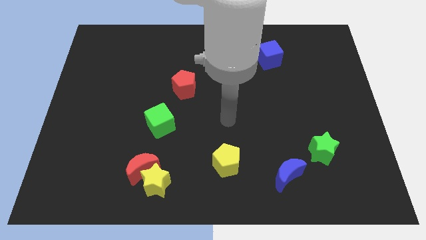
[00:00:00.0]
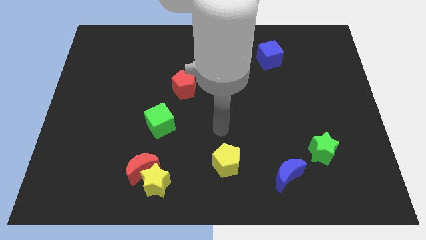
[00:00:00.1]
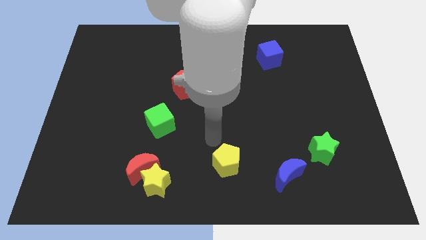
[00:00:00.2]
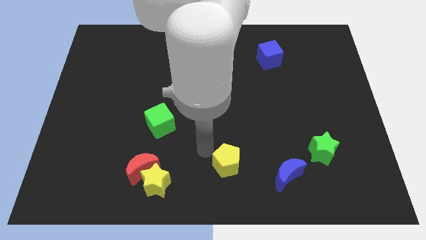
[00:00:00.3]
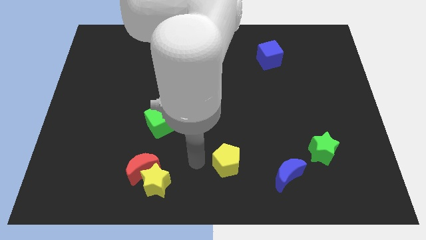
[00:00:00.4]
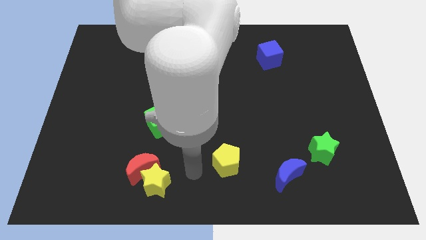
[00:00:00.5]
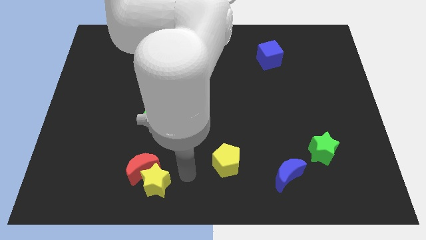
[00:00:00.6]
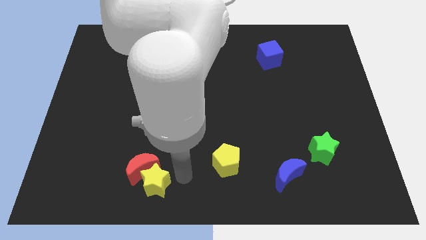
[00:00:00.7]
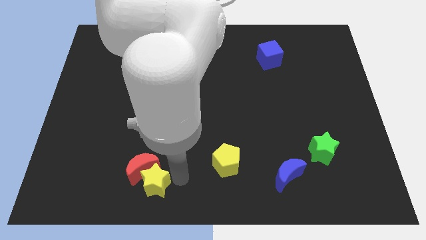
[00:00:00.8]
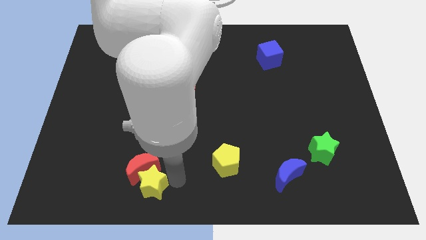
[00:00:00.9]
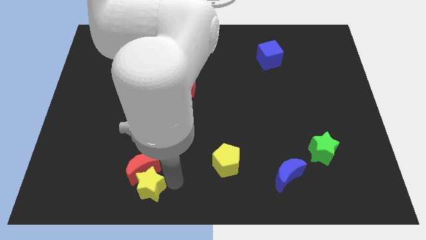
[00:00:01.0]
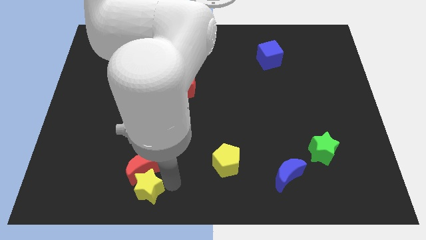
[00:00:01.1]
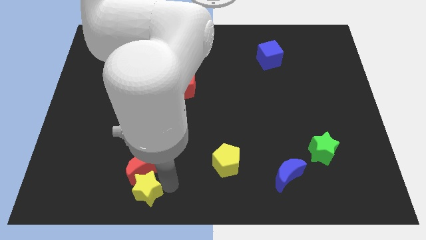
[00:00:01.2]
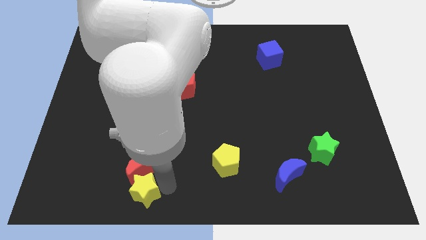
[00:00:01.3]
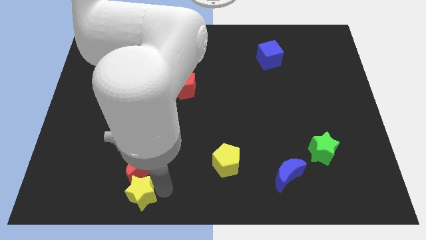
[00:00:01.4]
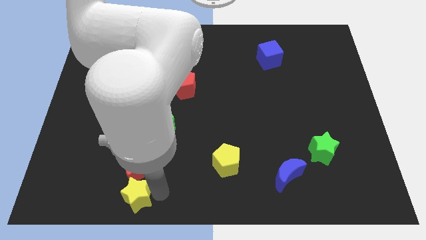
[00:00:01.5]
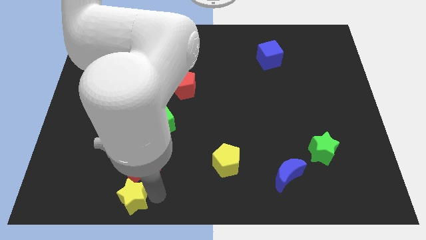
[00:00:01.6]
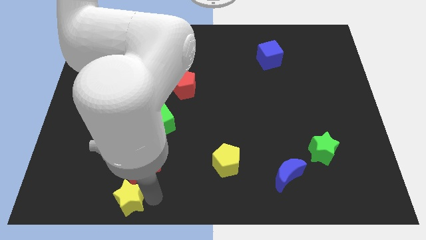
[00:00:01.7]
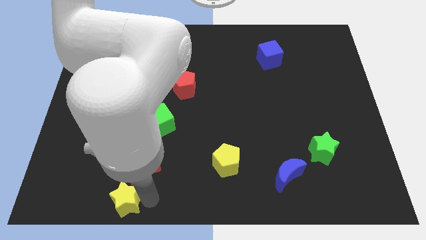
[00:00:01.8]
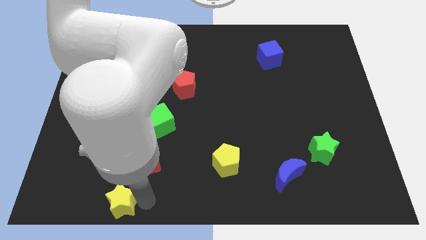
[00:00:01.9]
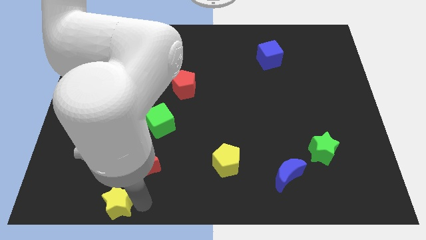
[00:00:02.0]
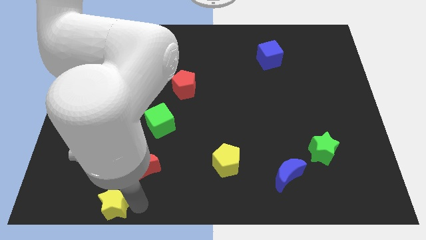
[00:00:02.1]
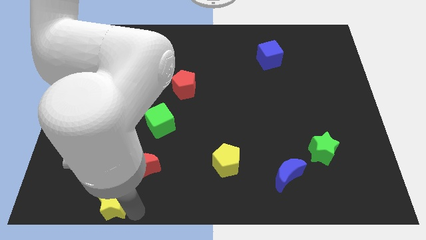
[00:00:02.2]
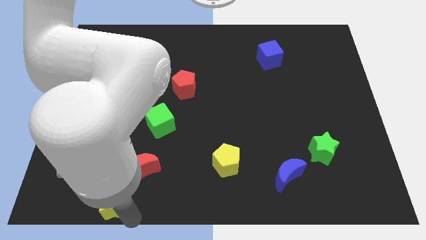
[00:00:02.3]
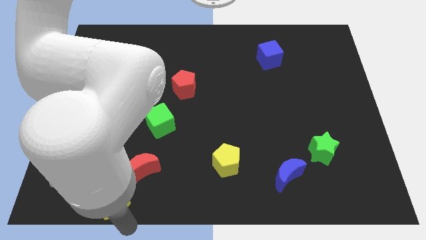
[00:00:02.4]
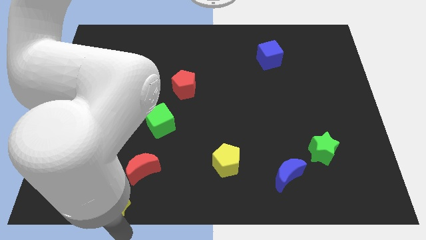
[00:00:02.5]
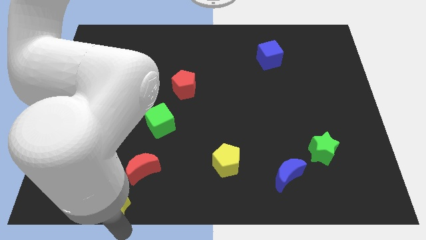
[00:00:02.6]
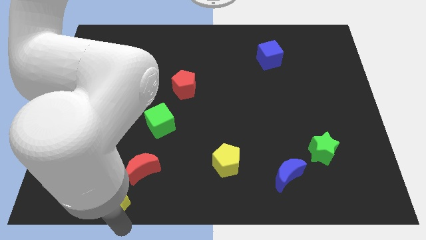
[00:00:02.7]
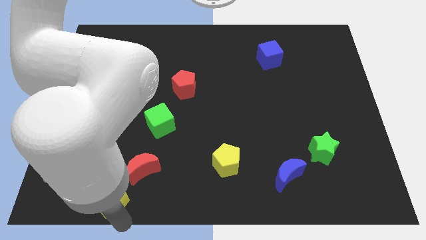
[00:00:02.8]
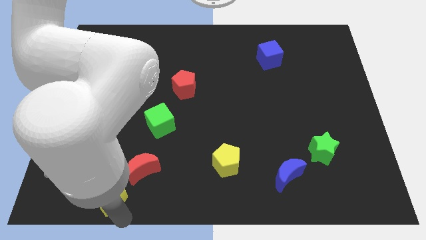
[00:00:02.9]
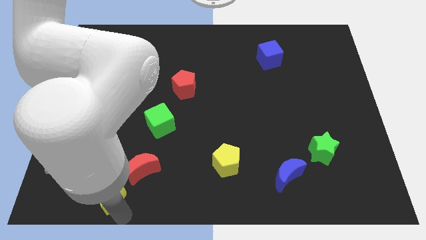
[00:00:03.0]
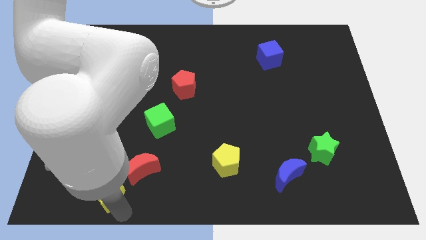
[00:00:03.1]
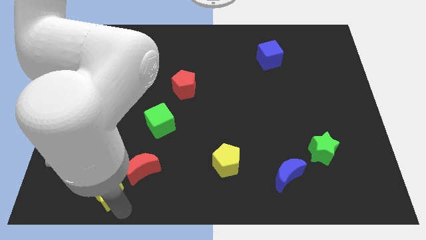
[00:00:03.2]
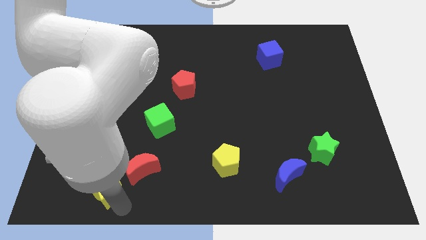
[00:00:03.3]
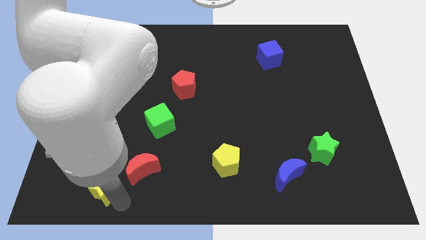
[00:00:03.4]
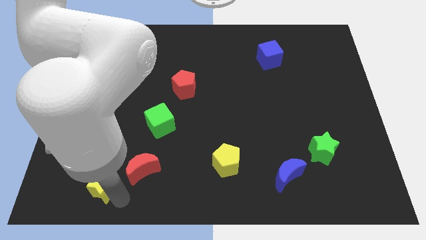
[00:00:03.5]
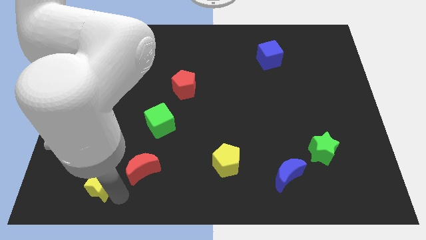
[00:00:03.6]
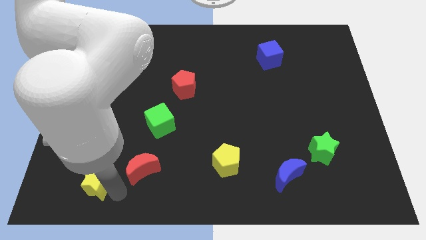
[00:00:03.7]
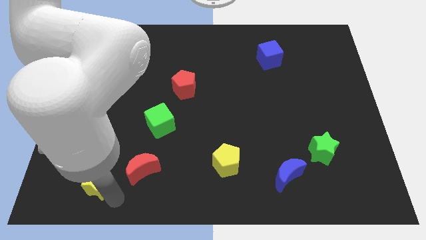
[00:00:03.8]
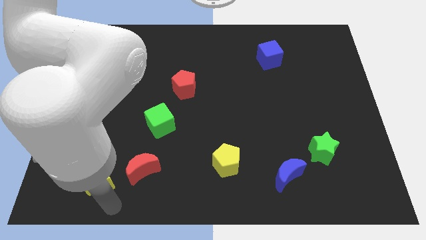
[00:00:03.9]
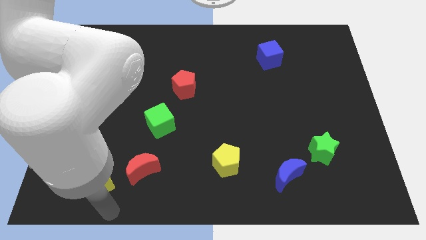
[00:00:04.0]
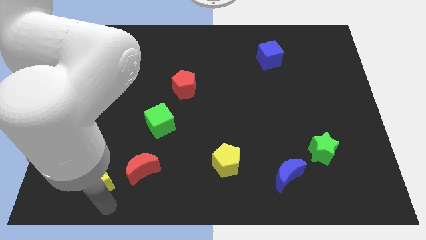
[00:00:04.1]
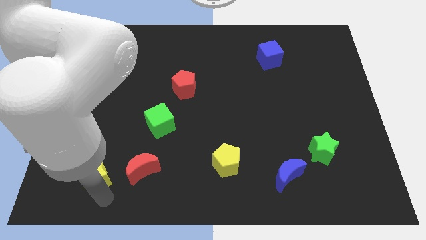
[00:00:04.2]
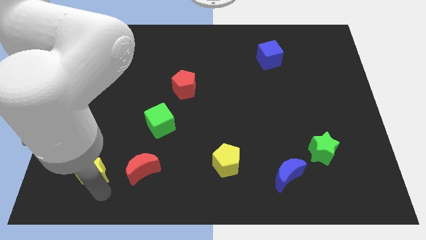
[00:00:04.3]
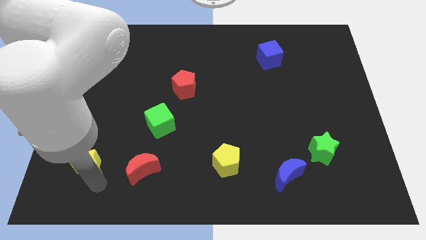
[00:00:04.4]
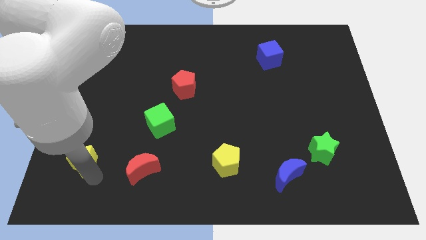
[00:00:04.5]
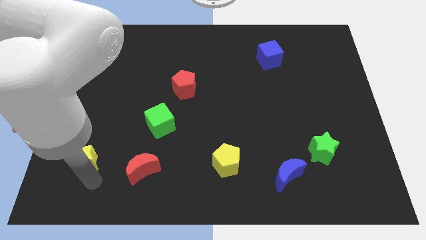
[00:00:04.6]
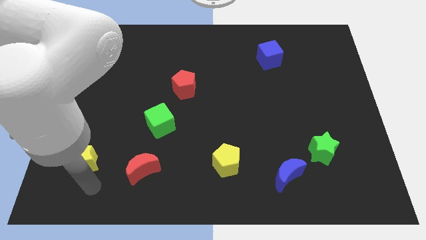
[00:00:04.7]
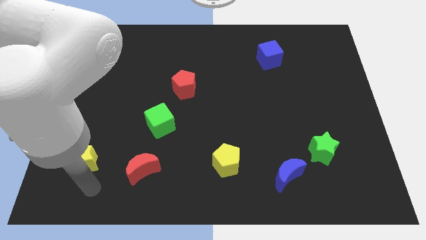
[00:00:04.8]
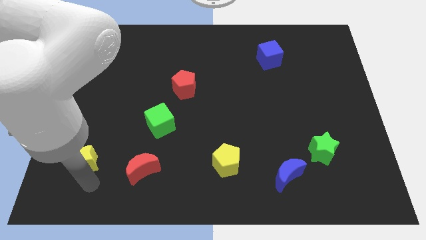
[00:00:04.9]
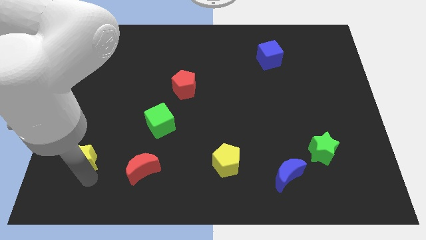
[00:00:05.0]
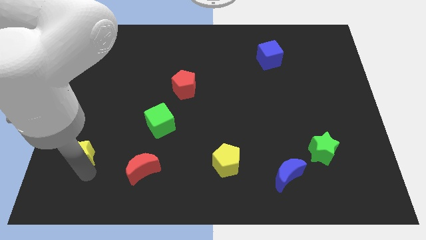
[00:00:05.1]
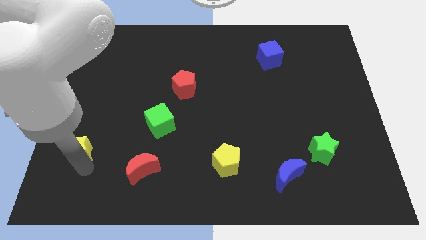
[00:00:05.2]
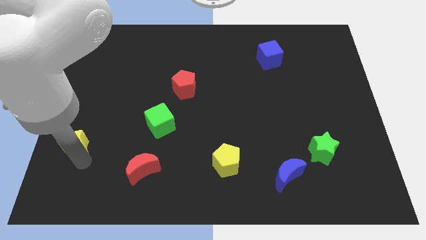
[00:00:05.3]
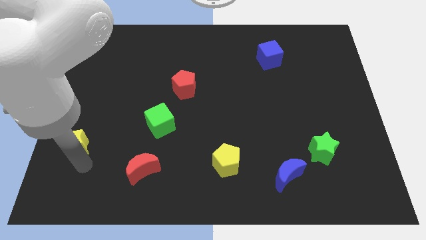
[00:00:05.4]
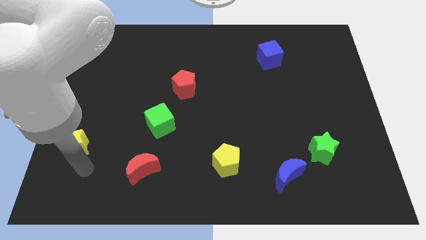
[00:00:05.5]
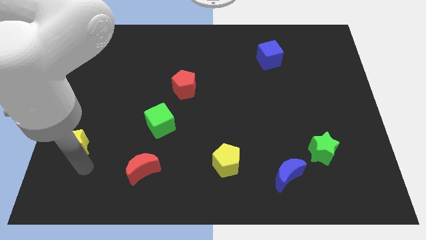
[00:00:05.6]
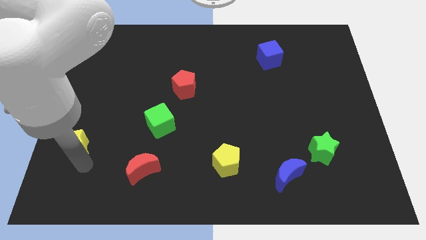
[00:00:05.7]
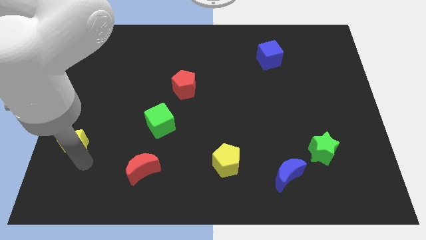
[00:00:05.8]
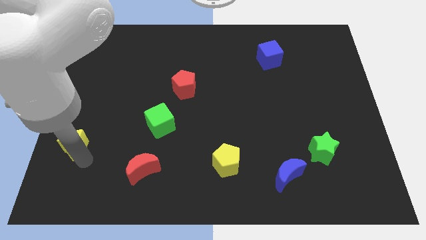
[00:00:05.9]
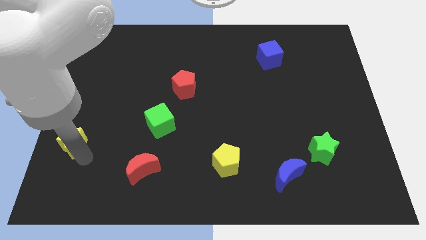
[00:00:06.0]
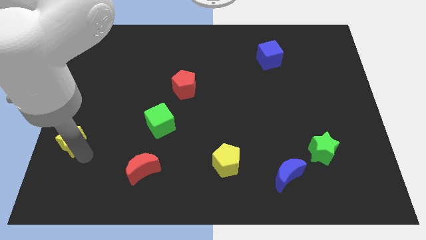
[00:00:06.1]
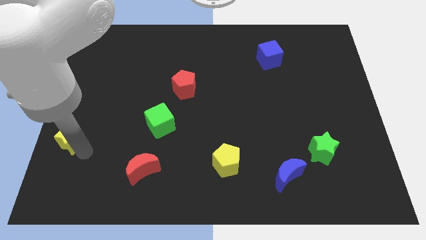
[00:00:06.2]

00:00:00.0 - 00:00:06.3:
move the yellow star to the left side of the board

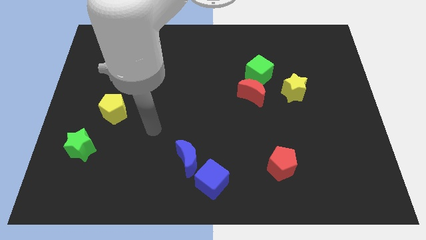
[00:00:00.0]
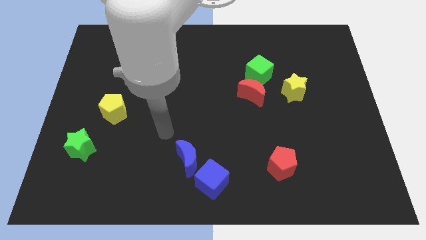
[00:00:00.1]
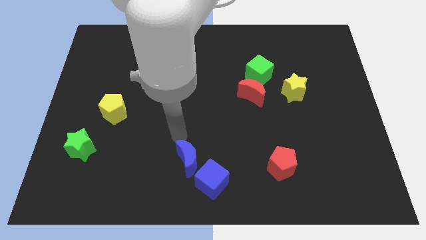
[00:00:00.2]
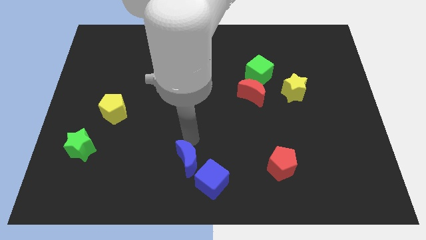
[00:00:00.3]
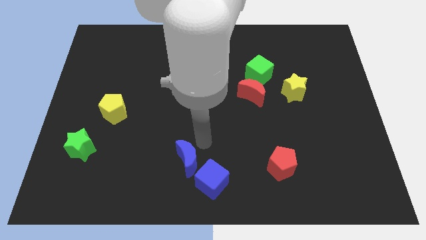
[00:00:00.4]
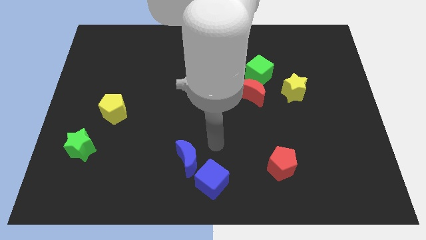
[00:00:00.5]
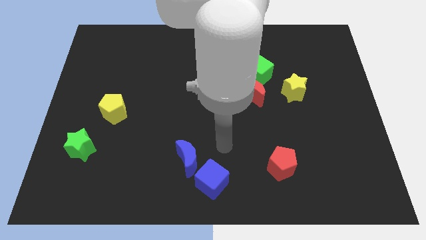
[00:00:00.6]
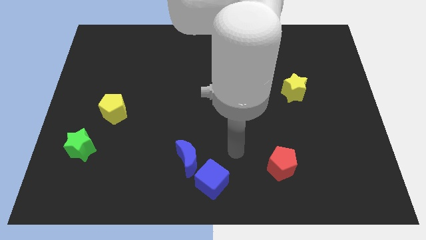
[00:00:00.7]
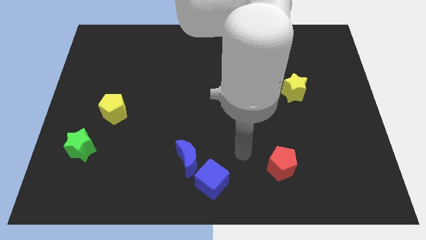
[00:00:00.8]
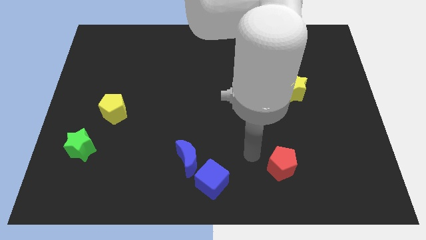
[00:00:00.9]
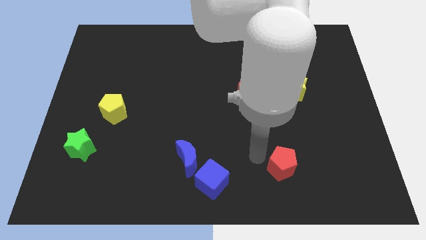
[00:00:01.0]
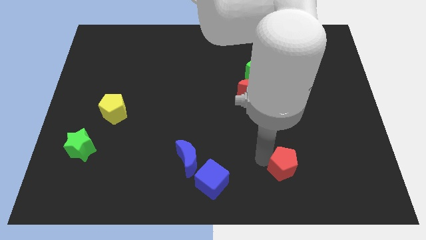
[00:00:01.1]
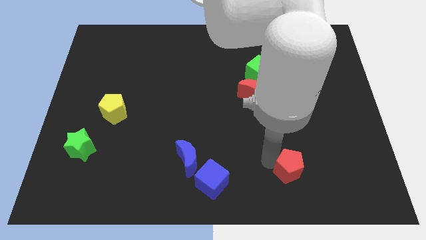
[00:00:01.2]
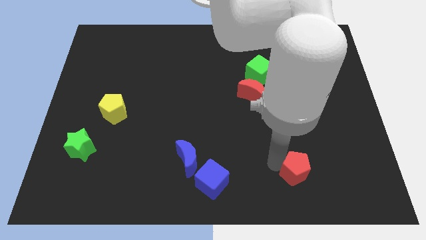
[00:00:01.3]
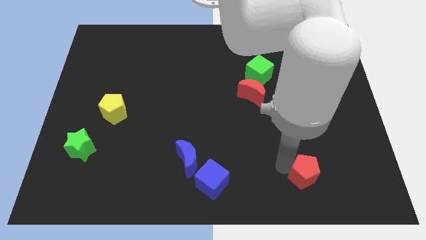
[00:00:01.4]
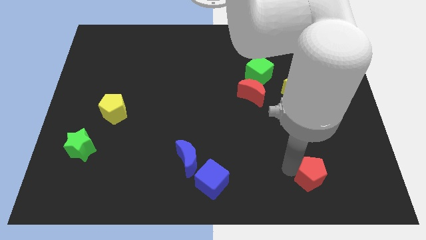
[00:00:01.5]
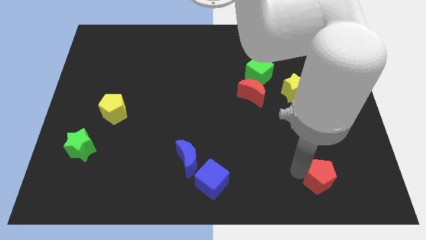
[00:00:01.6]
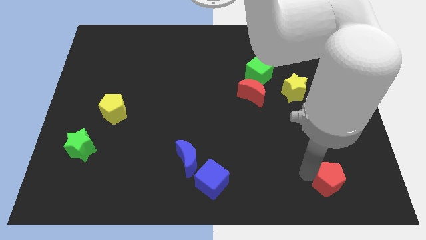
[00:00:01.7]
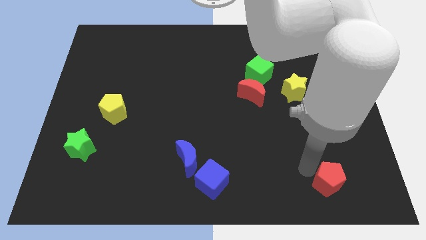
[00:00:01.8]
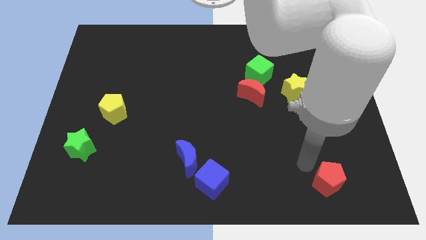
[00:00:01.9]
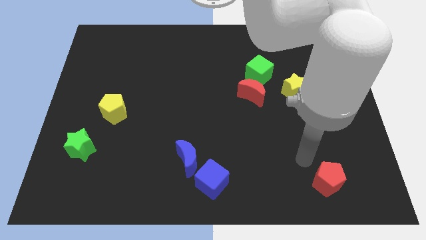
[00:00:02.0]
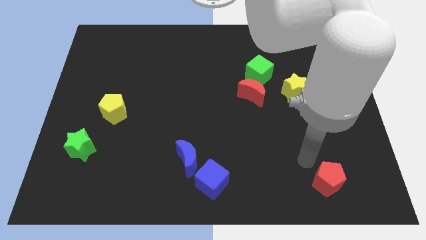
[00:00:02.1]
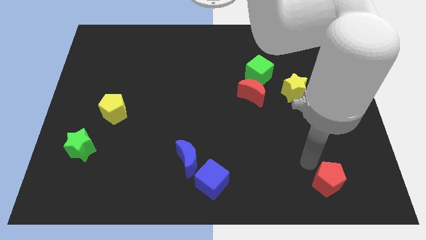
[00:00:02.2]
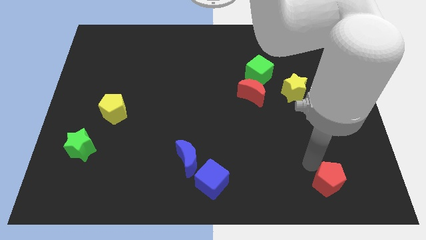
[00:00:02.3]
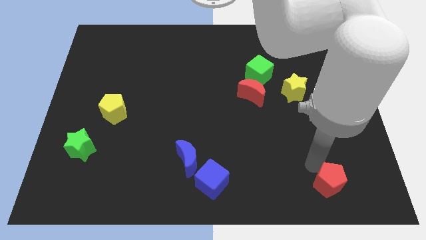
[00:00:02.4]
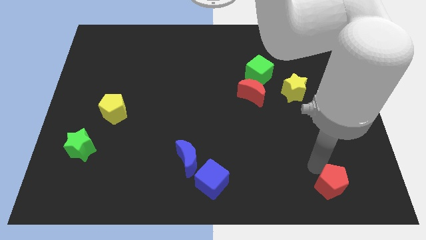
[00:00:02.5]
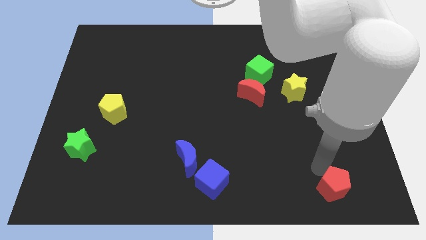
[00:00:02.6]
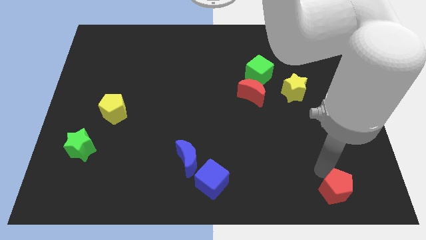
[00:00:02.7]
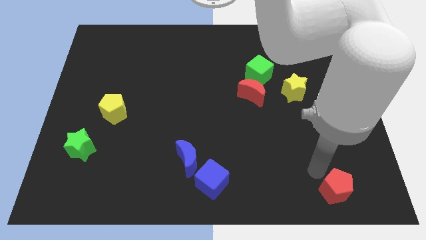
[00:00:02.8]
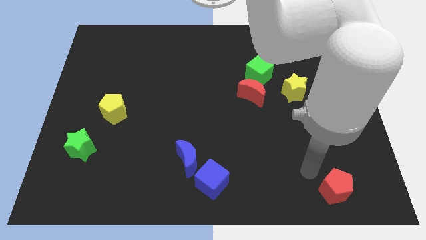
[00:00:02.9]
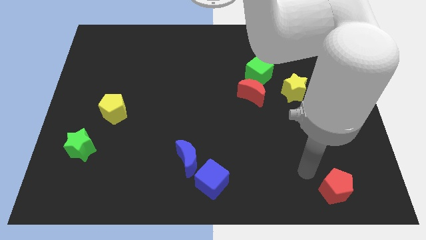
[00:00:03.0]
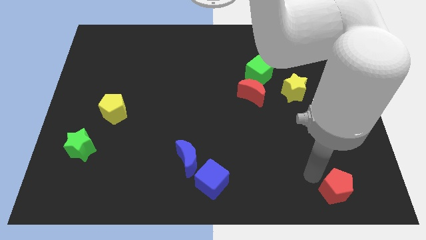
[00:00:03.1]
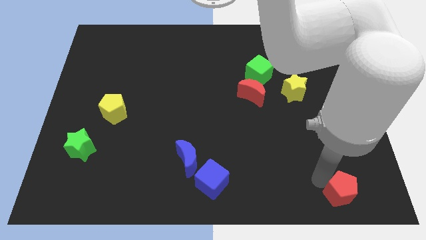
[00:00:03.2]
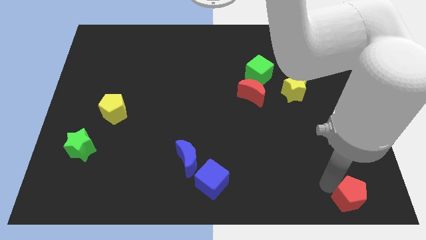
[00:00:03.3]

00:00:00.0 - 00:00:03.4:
put the red pentagon to the bottom right corner
